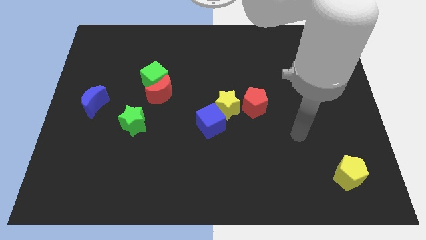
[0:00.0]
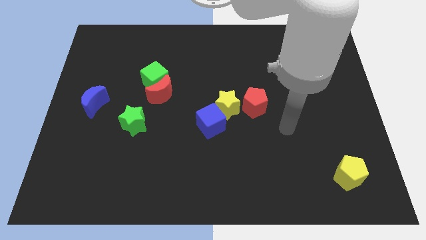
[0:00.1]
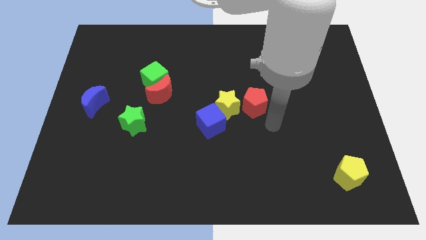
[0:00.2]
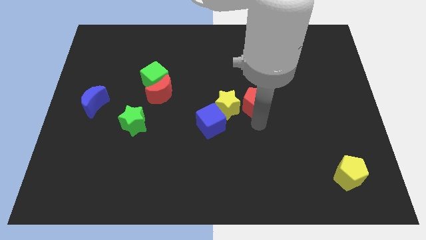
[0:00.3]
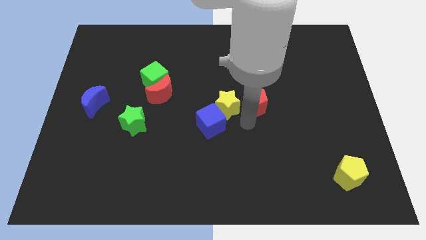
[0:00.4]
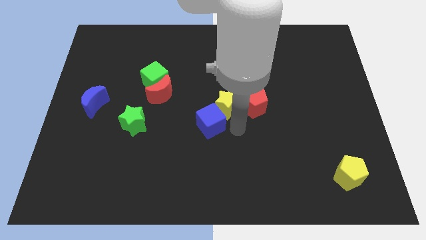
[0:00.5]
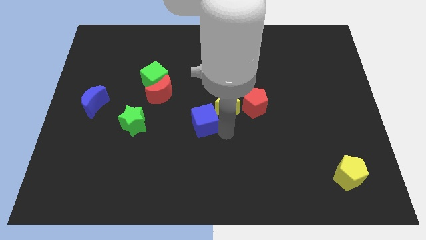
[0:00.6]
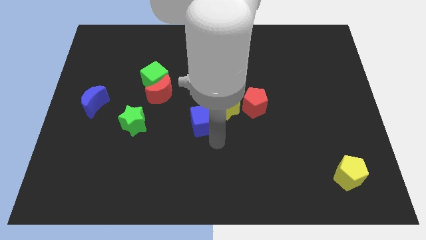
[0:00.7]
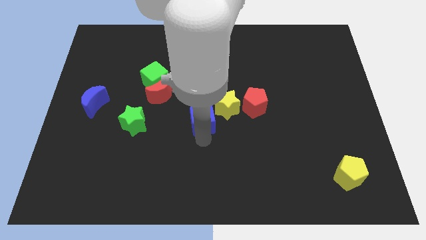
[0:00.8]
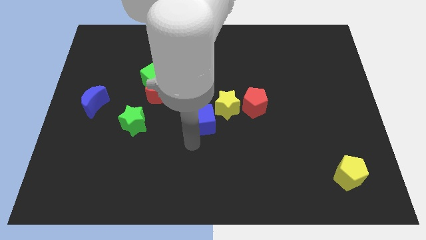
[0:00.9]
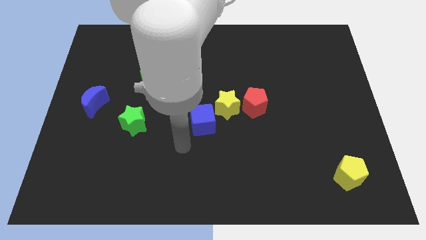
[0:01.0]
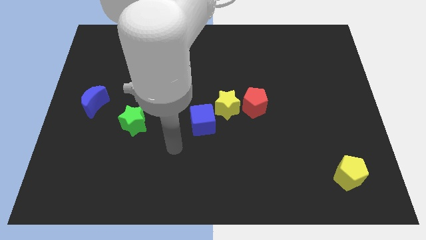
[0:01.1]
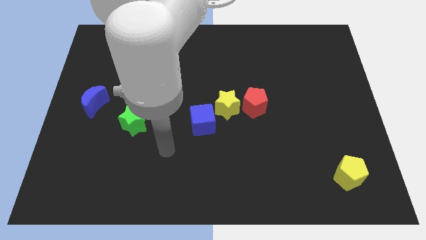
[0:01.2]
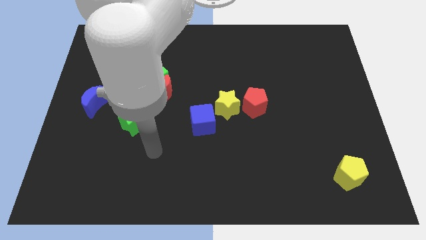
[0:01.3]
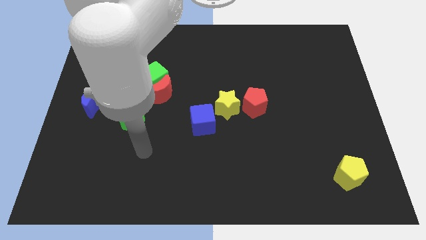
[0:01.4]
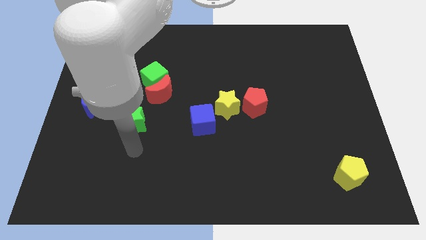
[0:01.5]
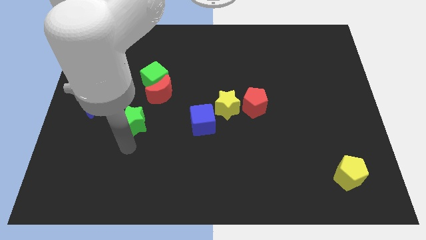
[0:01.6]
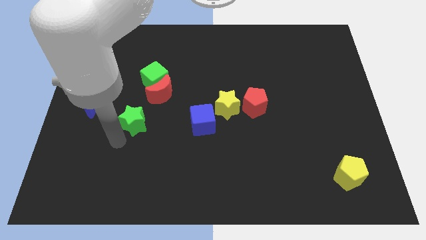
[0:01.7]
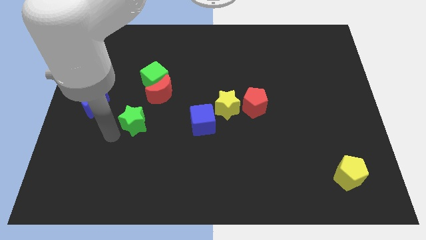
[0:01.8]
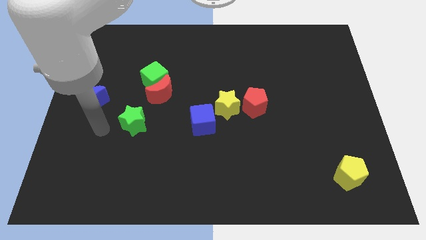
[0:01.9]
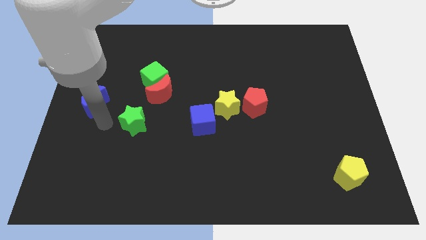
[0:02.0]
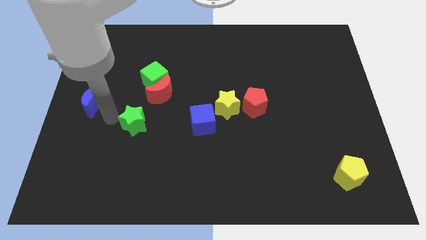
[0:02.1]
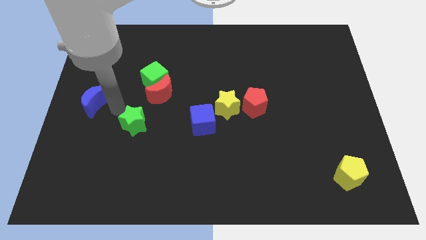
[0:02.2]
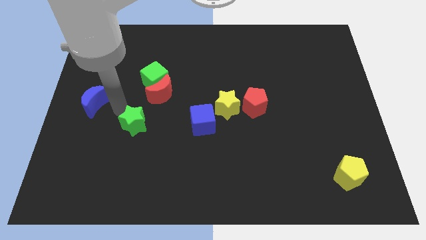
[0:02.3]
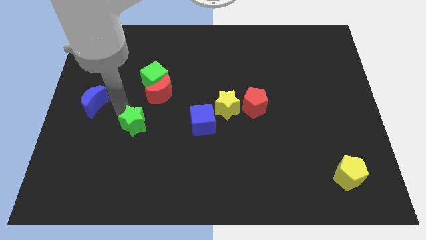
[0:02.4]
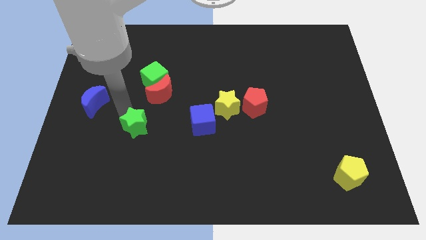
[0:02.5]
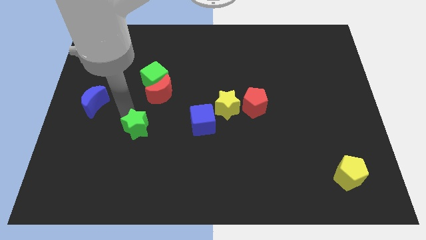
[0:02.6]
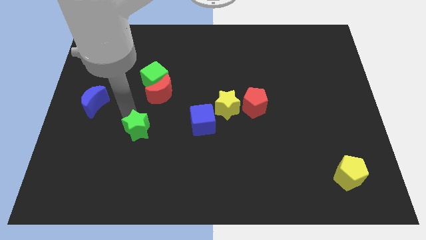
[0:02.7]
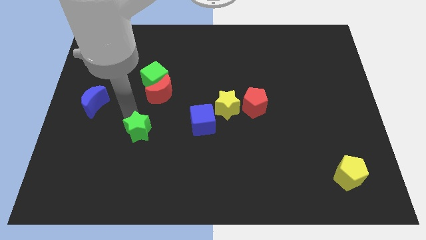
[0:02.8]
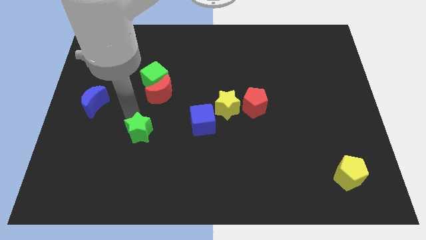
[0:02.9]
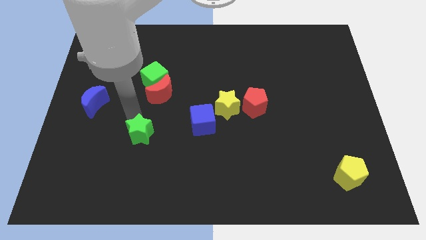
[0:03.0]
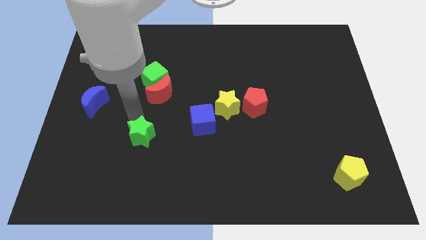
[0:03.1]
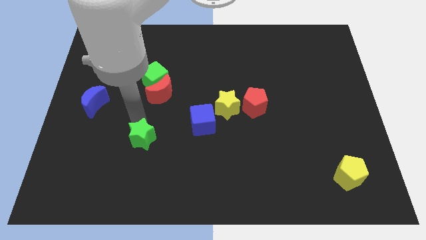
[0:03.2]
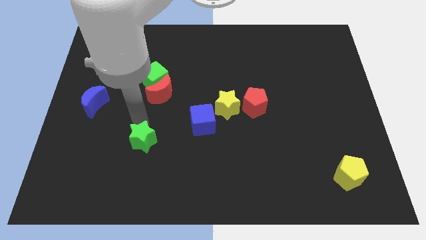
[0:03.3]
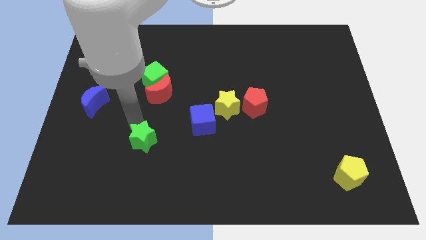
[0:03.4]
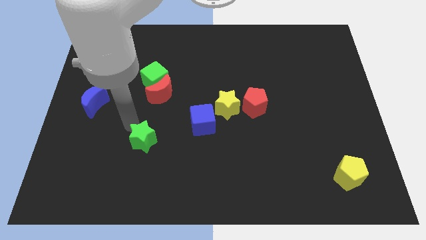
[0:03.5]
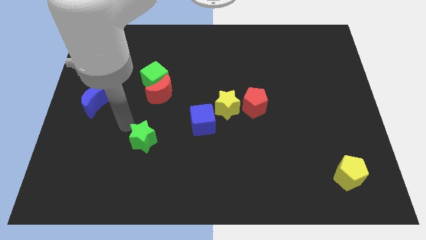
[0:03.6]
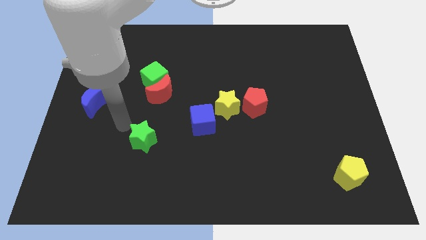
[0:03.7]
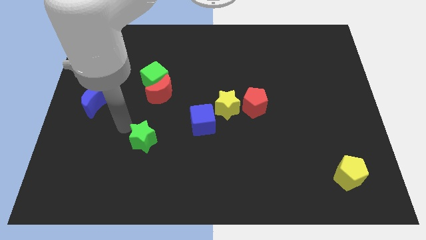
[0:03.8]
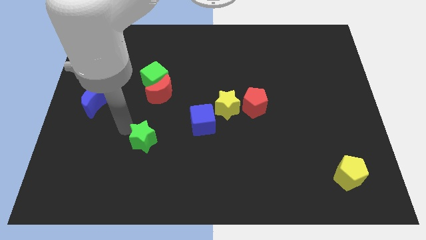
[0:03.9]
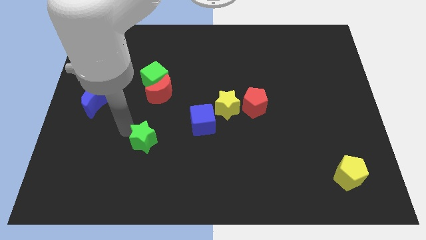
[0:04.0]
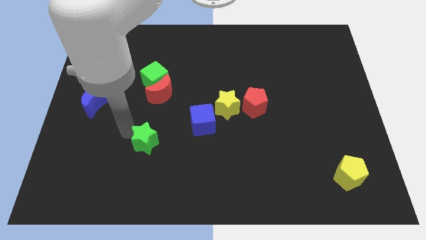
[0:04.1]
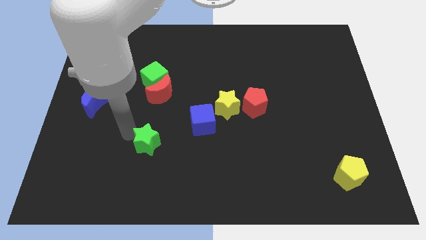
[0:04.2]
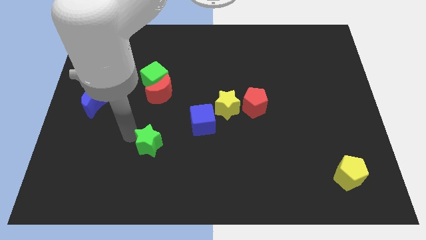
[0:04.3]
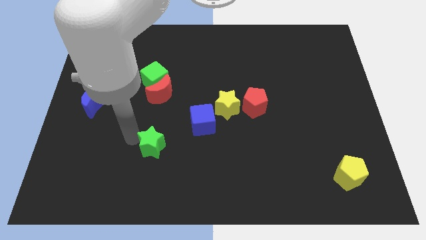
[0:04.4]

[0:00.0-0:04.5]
slightly slide the green star downwards and then to the right

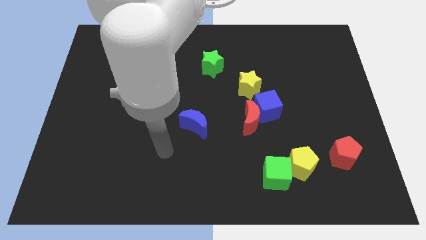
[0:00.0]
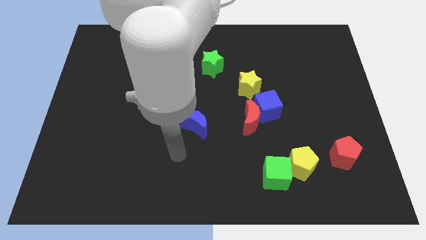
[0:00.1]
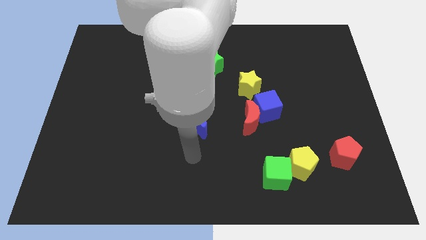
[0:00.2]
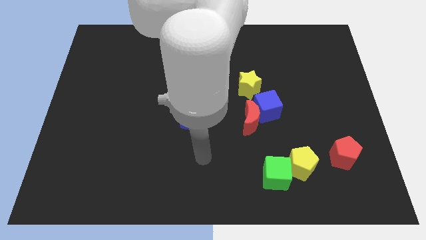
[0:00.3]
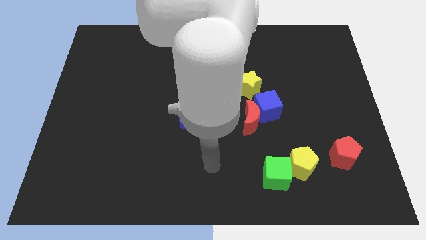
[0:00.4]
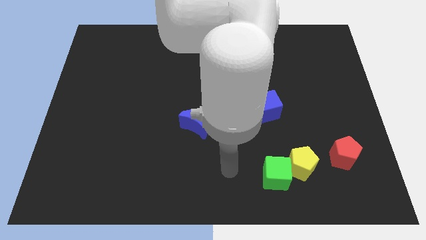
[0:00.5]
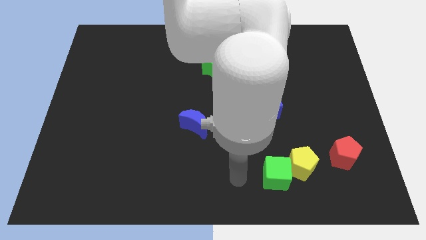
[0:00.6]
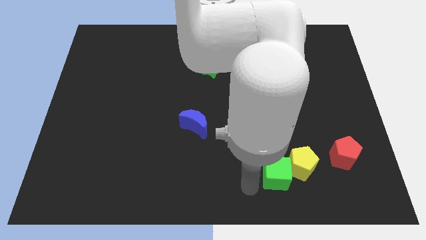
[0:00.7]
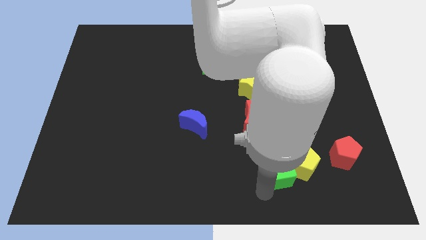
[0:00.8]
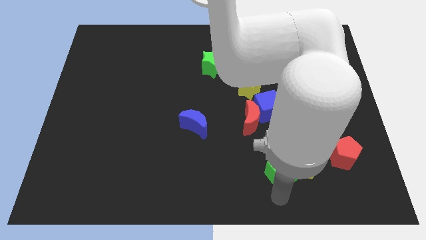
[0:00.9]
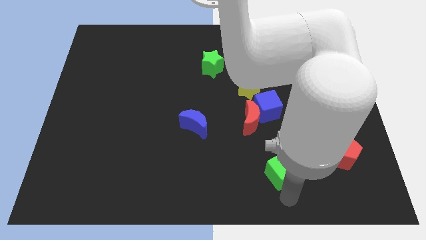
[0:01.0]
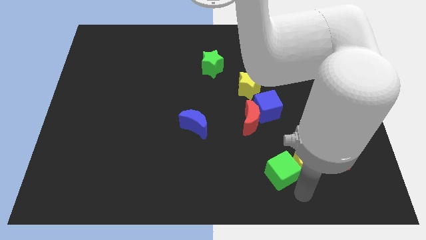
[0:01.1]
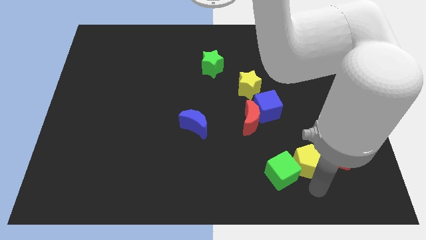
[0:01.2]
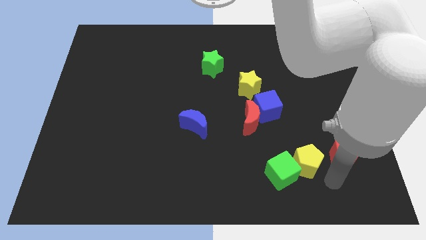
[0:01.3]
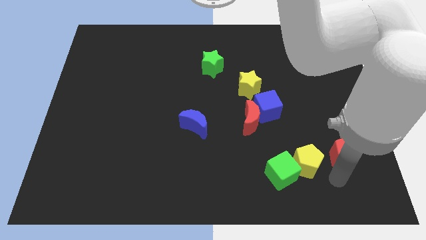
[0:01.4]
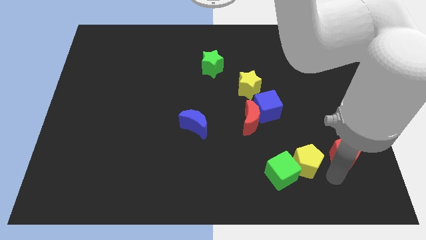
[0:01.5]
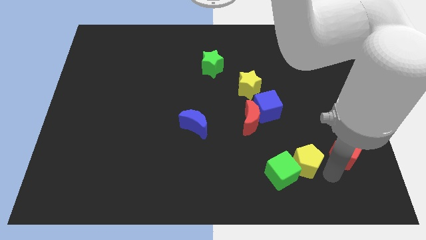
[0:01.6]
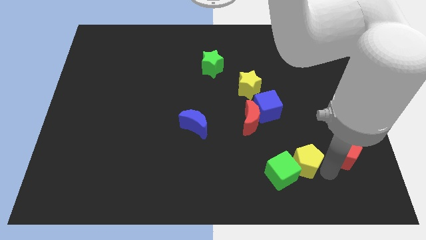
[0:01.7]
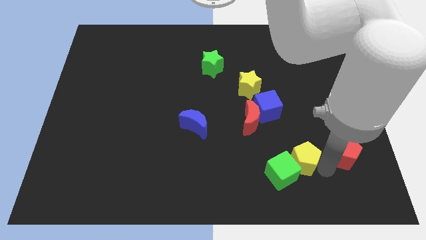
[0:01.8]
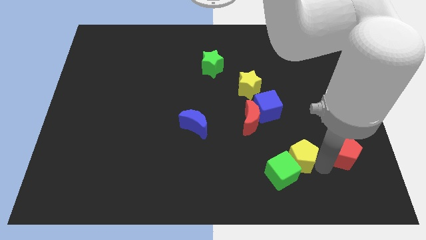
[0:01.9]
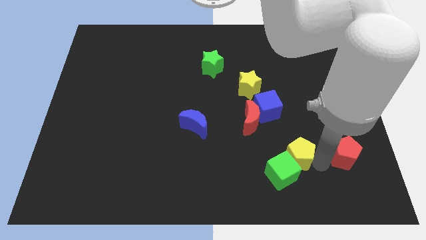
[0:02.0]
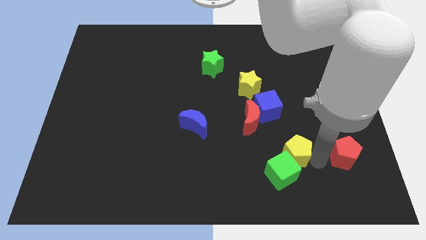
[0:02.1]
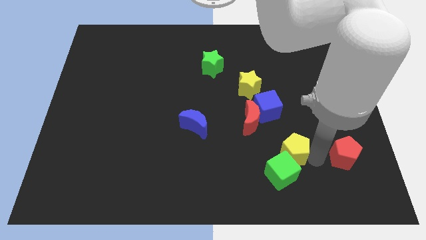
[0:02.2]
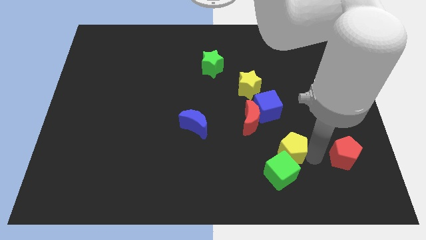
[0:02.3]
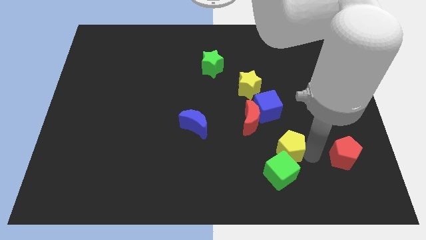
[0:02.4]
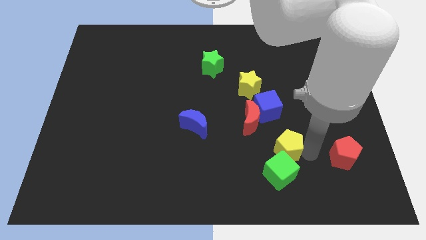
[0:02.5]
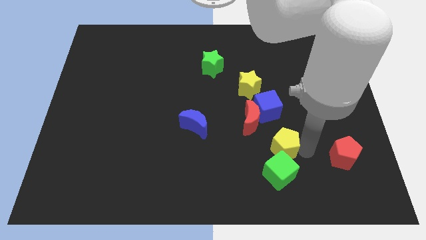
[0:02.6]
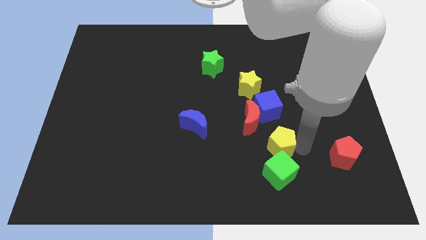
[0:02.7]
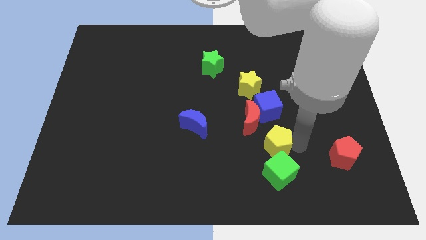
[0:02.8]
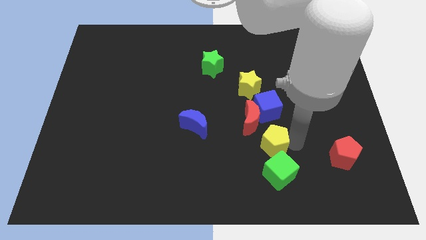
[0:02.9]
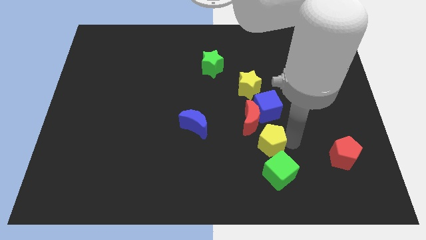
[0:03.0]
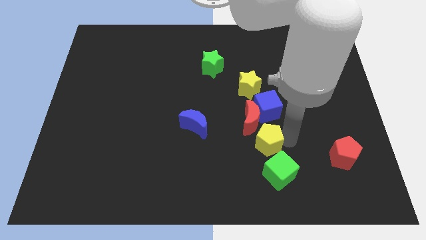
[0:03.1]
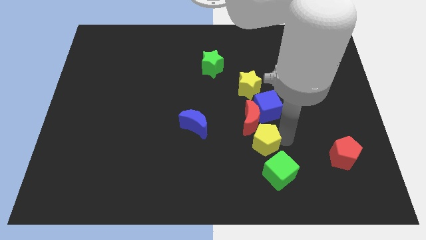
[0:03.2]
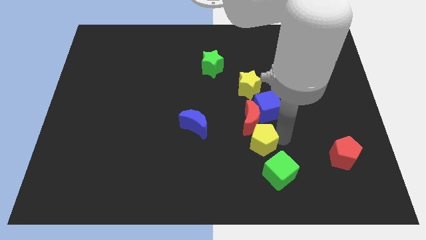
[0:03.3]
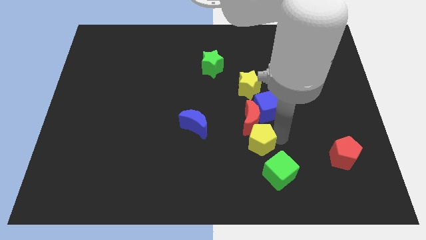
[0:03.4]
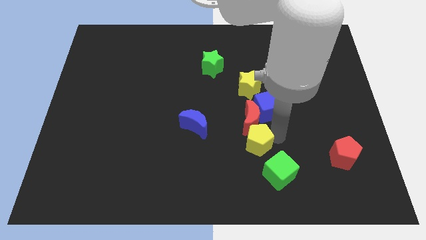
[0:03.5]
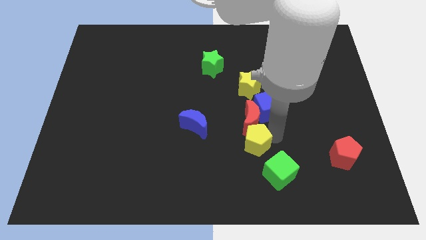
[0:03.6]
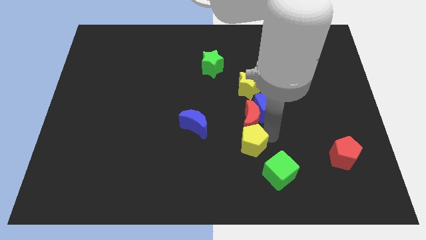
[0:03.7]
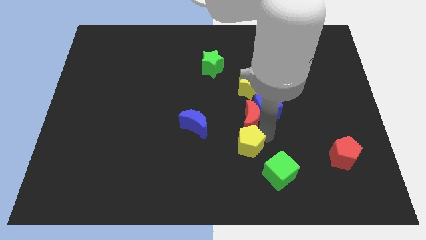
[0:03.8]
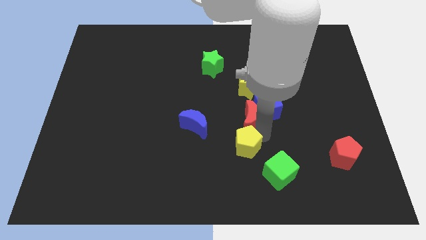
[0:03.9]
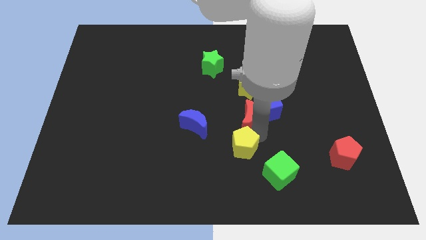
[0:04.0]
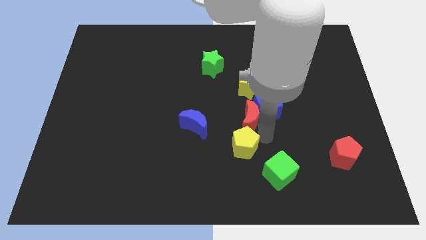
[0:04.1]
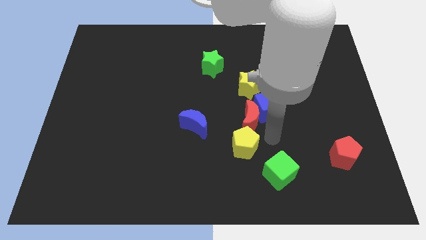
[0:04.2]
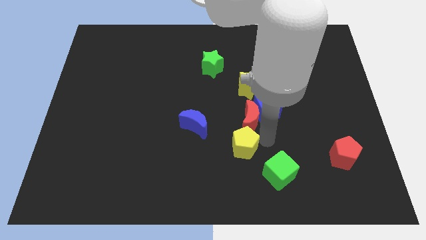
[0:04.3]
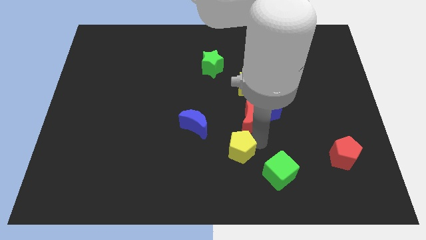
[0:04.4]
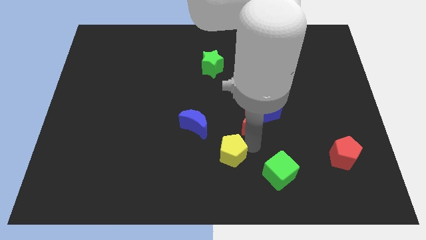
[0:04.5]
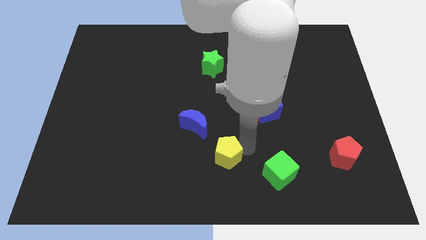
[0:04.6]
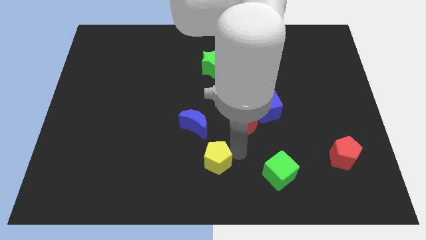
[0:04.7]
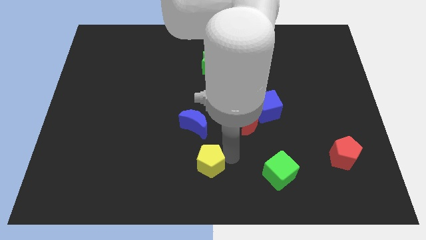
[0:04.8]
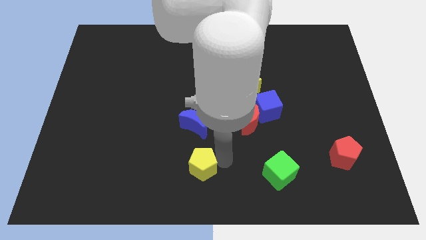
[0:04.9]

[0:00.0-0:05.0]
move the yellow pentagon left
